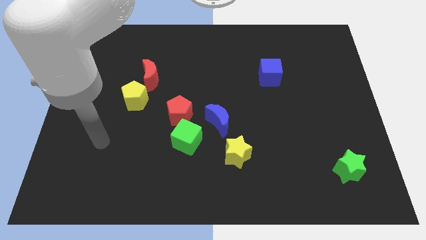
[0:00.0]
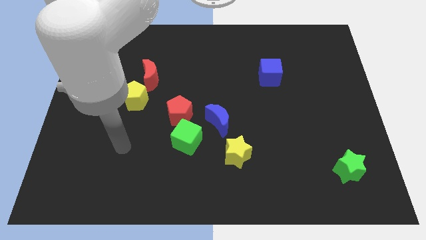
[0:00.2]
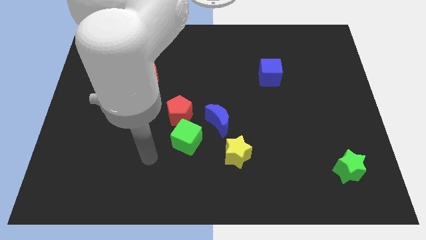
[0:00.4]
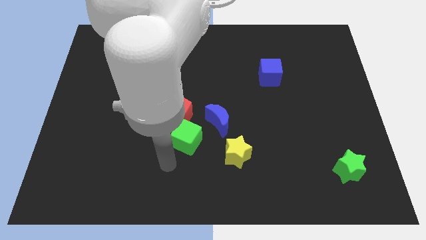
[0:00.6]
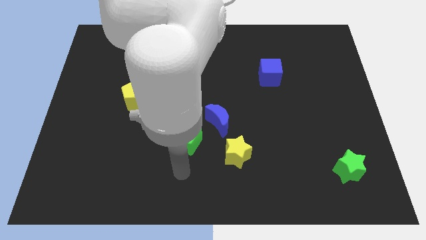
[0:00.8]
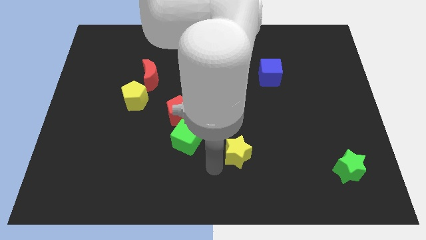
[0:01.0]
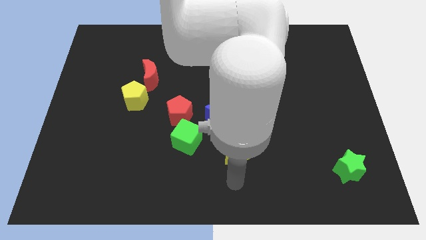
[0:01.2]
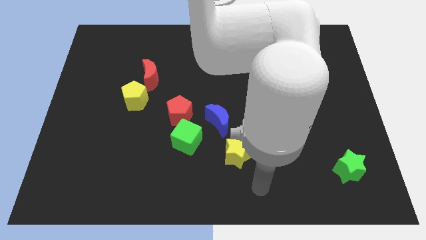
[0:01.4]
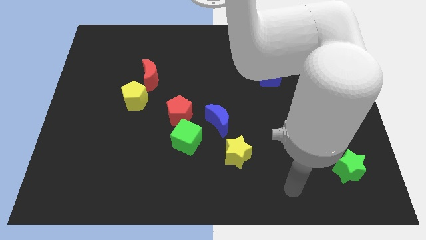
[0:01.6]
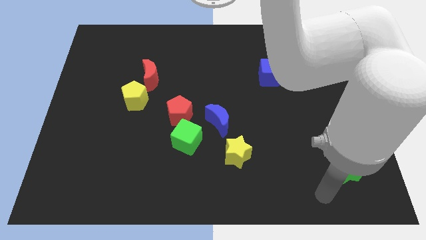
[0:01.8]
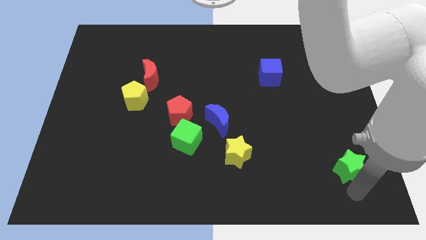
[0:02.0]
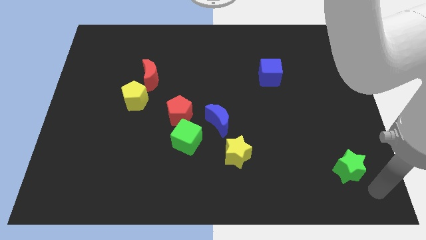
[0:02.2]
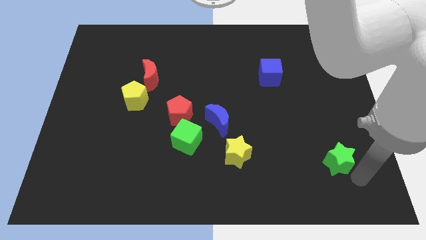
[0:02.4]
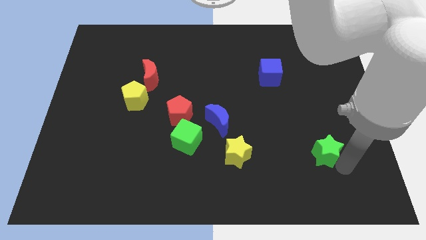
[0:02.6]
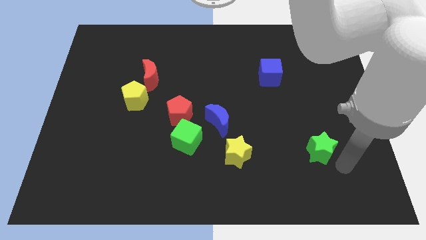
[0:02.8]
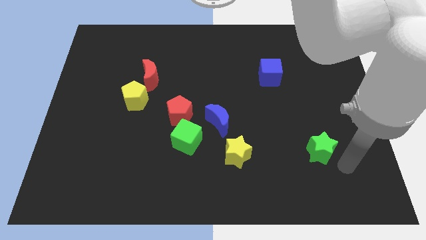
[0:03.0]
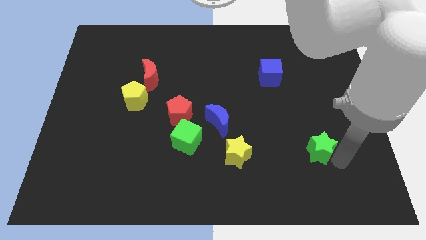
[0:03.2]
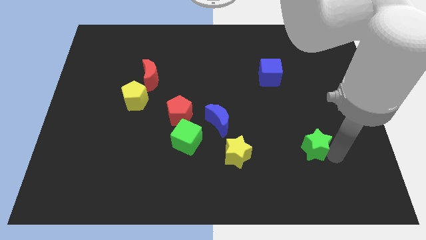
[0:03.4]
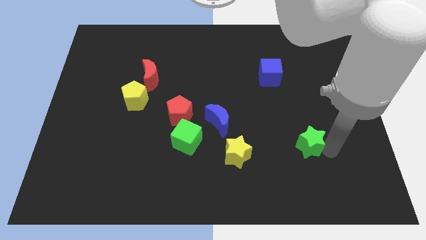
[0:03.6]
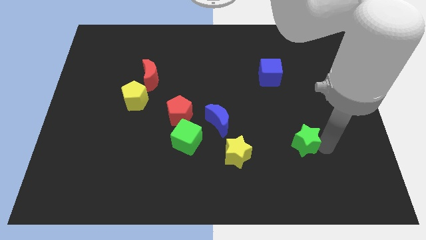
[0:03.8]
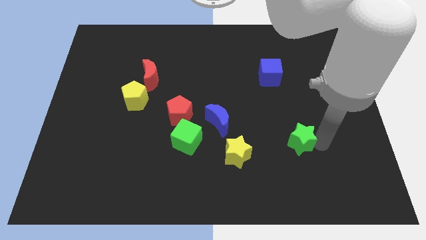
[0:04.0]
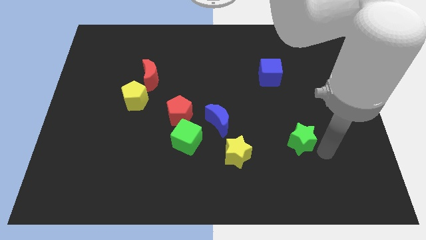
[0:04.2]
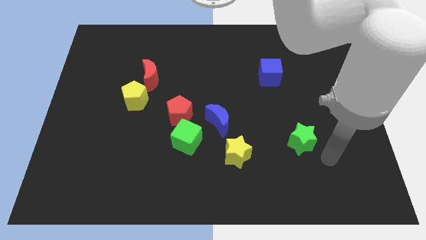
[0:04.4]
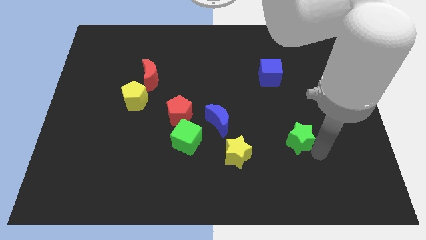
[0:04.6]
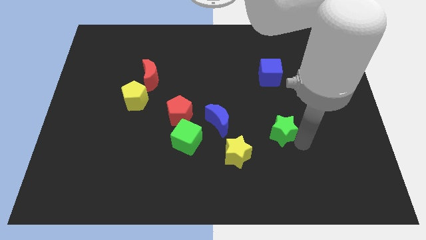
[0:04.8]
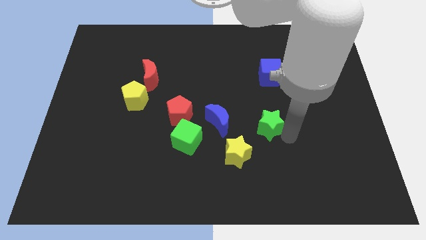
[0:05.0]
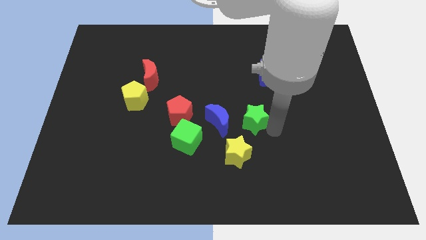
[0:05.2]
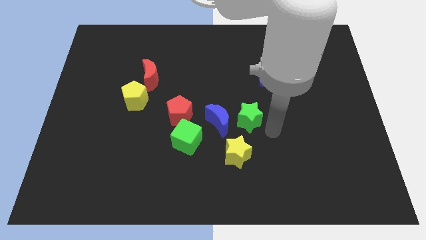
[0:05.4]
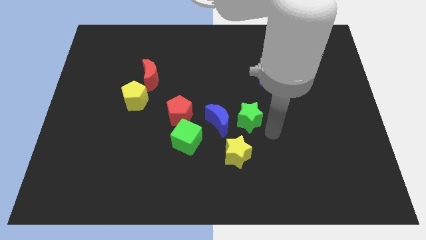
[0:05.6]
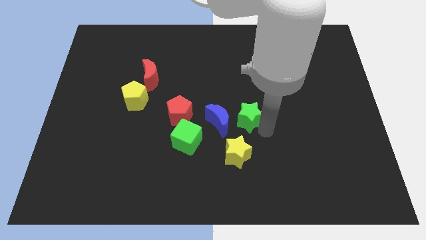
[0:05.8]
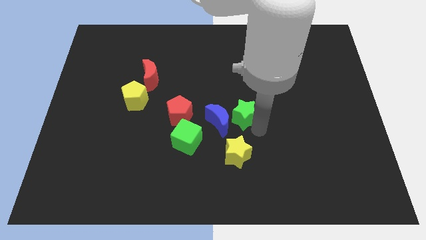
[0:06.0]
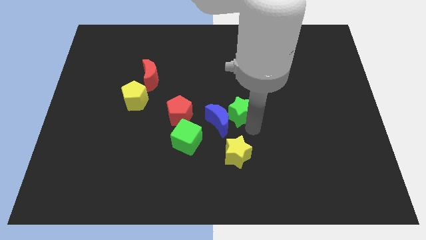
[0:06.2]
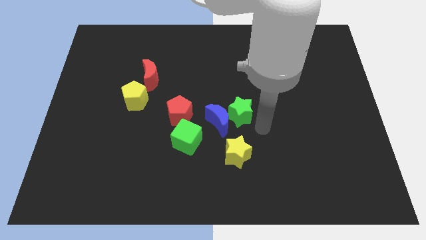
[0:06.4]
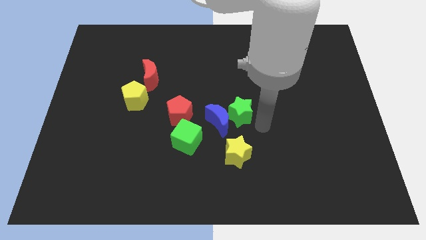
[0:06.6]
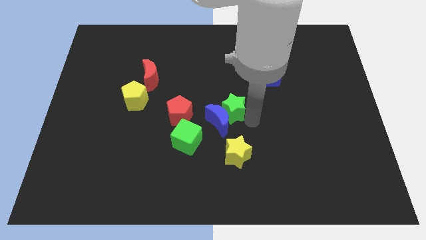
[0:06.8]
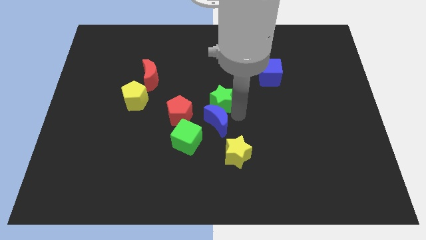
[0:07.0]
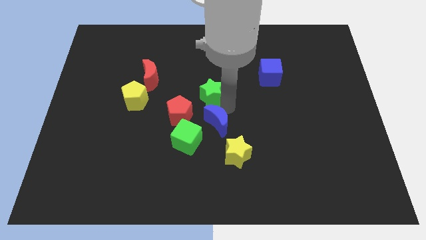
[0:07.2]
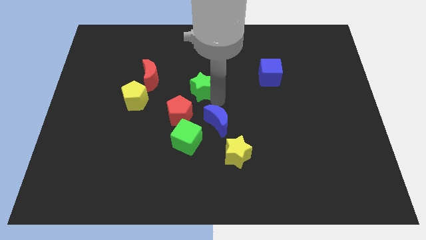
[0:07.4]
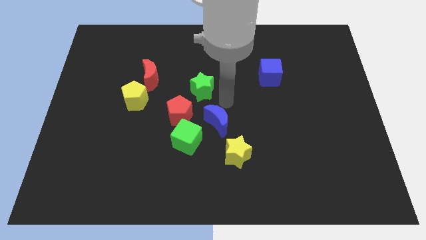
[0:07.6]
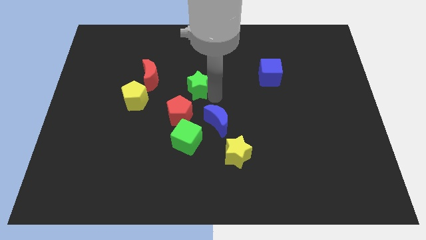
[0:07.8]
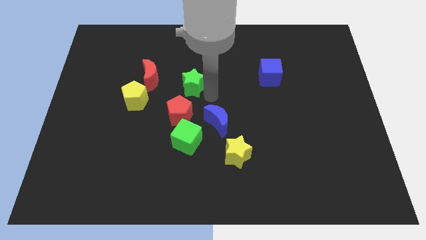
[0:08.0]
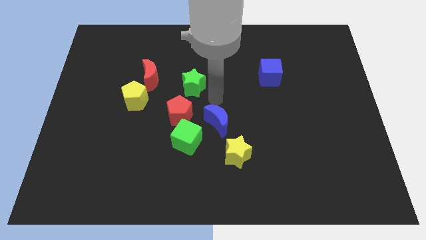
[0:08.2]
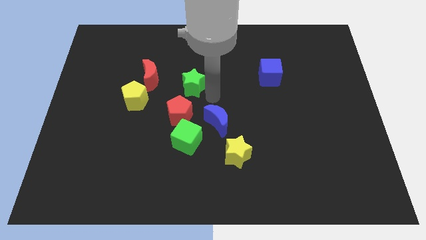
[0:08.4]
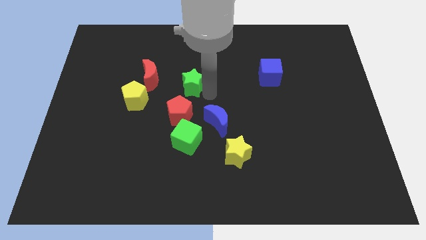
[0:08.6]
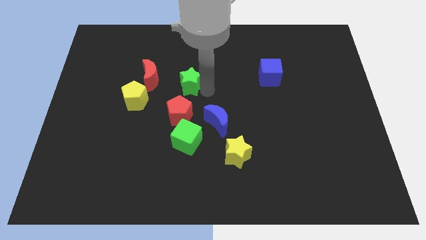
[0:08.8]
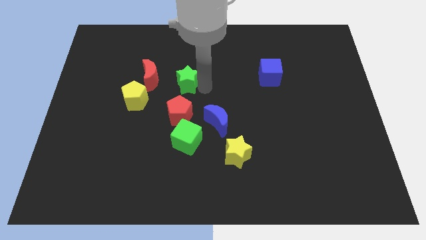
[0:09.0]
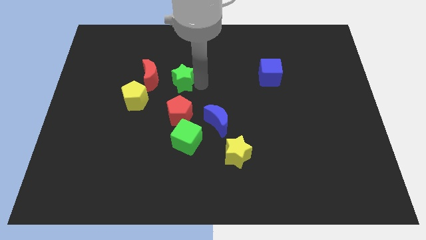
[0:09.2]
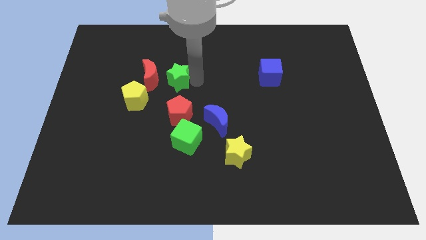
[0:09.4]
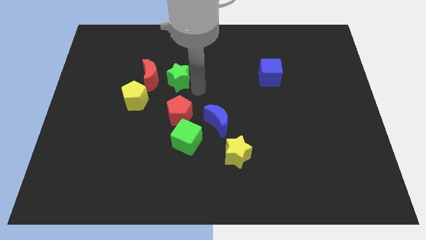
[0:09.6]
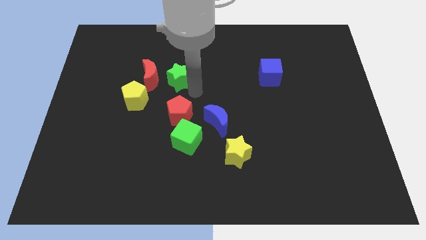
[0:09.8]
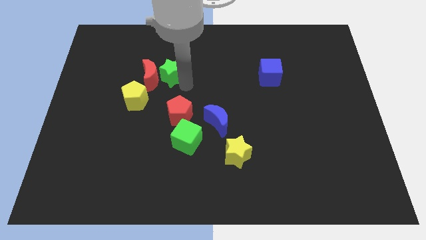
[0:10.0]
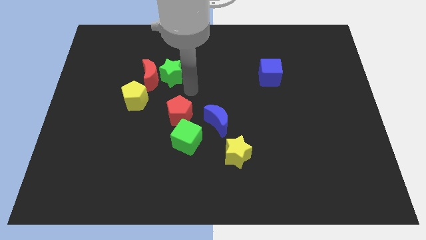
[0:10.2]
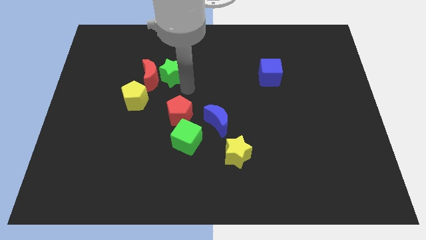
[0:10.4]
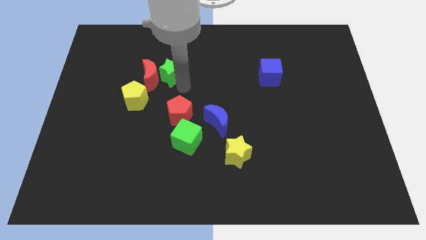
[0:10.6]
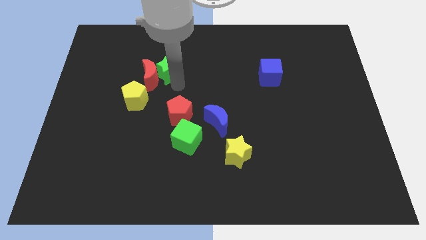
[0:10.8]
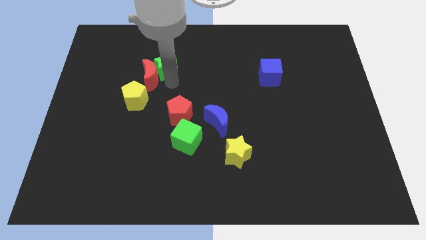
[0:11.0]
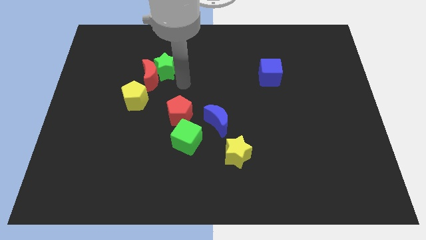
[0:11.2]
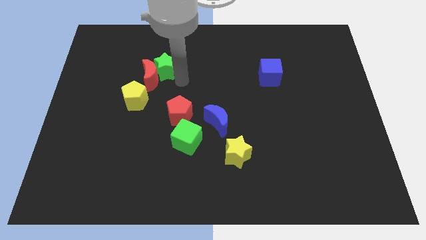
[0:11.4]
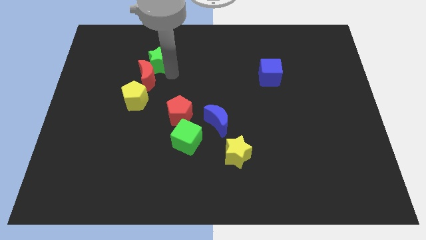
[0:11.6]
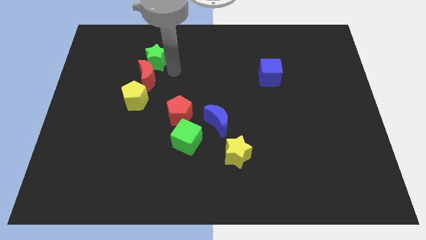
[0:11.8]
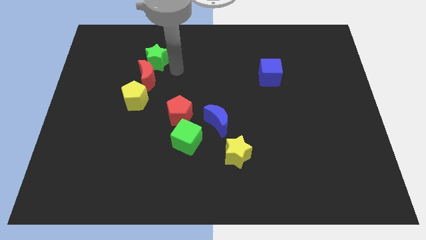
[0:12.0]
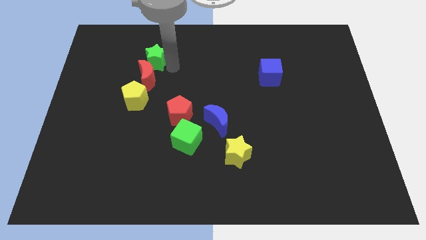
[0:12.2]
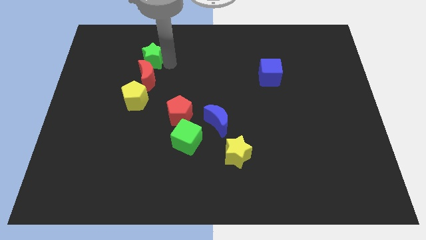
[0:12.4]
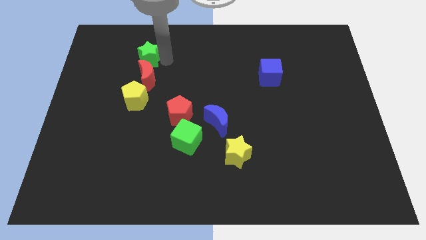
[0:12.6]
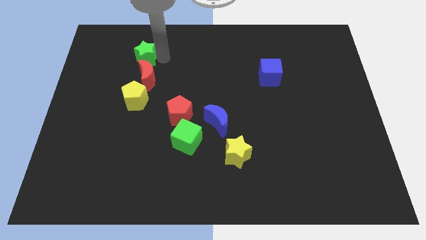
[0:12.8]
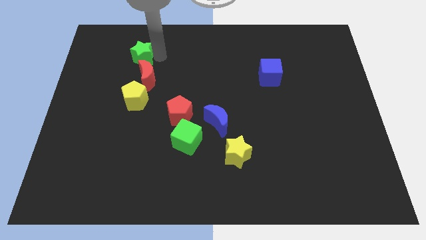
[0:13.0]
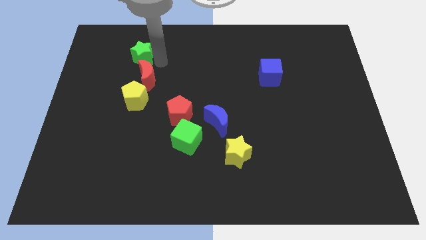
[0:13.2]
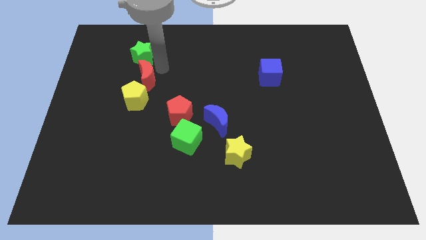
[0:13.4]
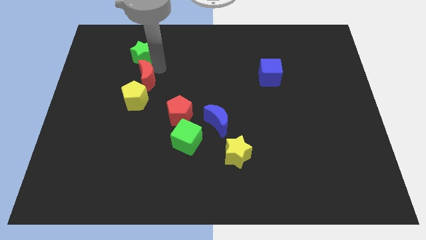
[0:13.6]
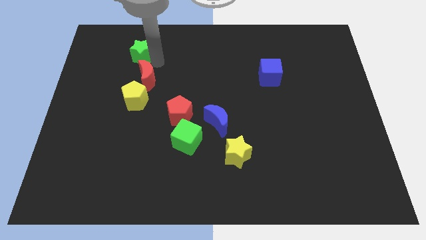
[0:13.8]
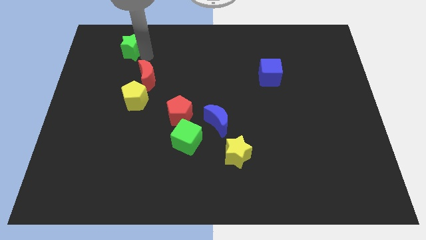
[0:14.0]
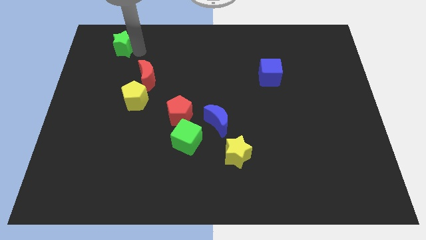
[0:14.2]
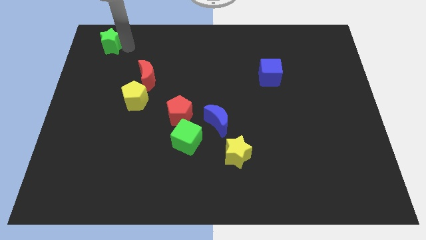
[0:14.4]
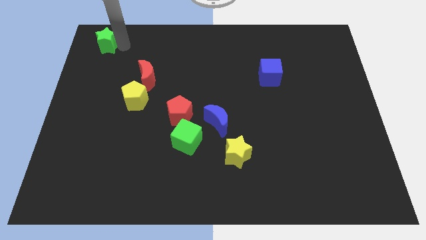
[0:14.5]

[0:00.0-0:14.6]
move the green star to the top left corner
